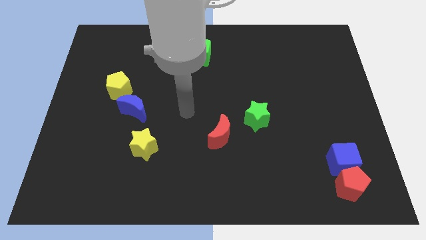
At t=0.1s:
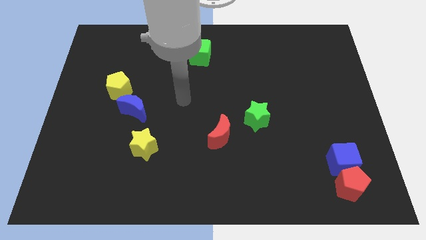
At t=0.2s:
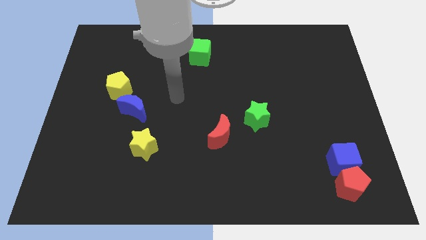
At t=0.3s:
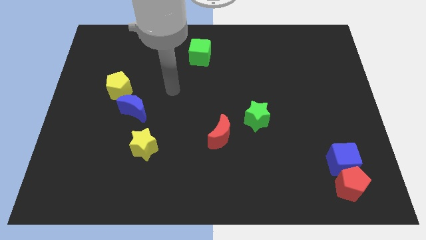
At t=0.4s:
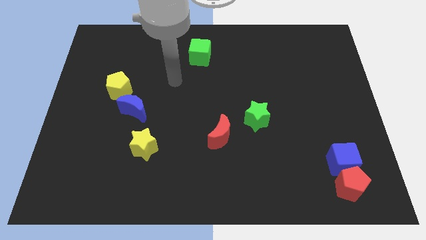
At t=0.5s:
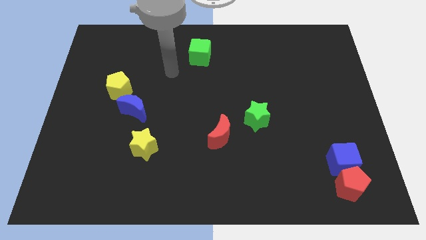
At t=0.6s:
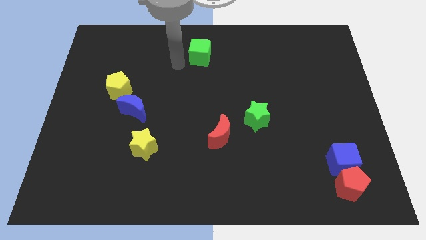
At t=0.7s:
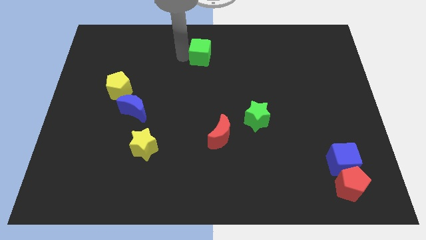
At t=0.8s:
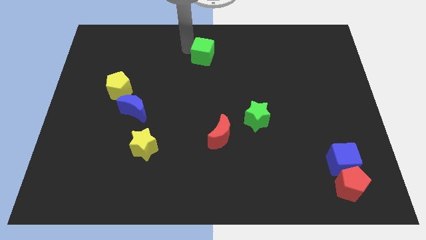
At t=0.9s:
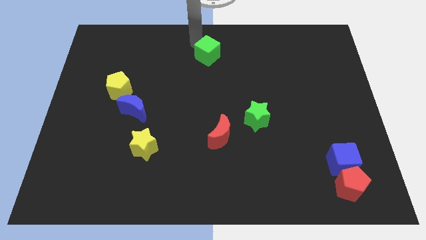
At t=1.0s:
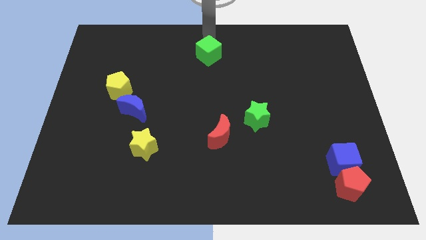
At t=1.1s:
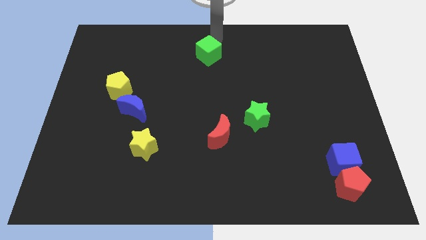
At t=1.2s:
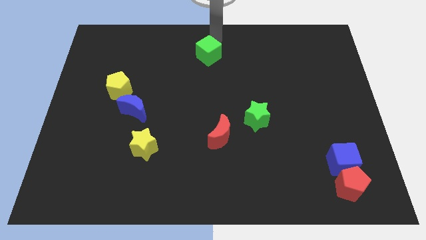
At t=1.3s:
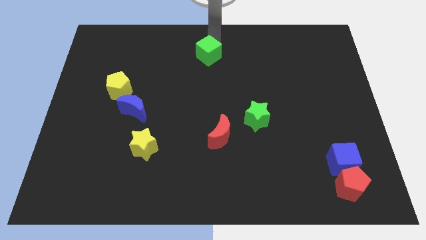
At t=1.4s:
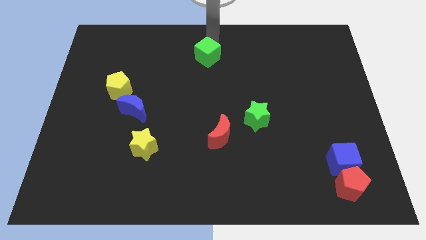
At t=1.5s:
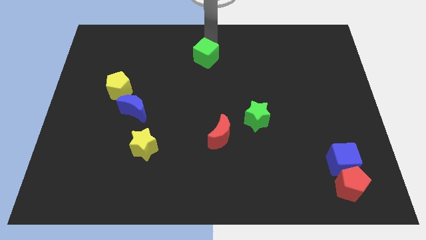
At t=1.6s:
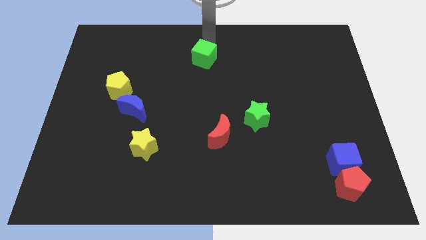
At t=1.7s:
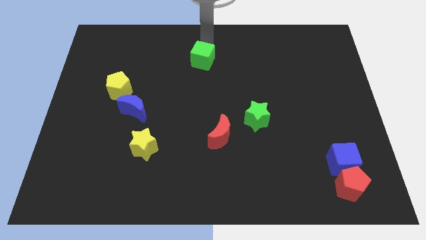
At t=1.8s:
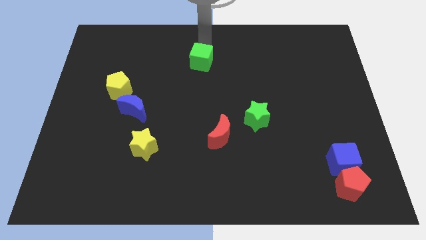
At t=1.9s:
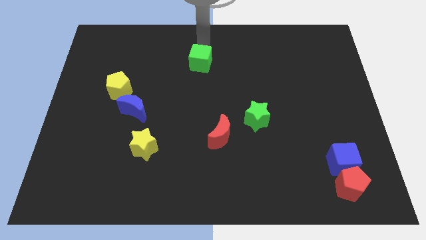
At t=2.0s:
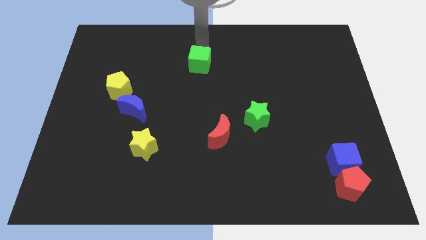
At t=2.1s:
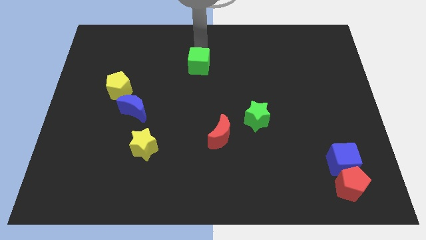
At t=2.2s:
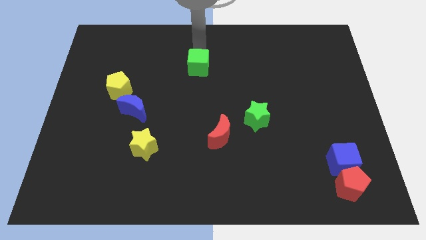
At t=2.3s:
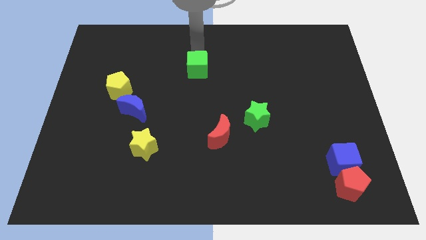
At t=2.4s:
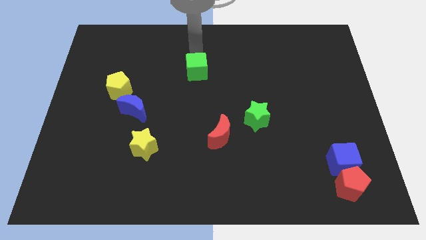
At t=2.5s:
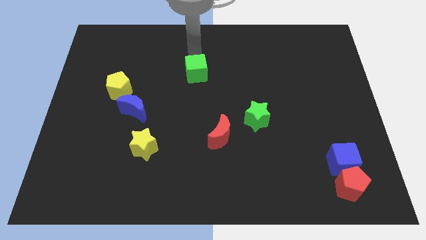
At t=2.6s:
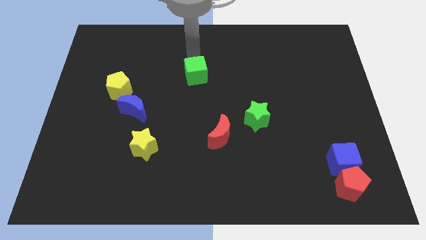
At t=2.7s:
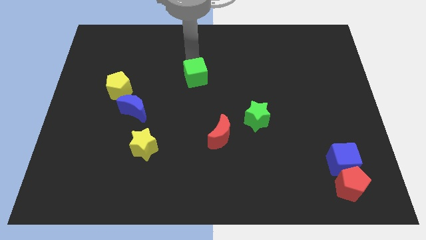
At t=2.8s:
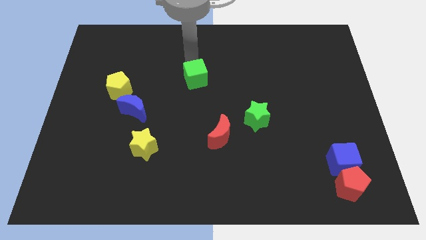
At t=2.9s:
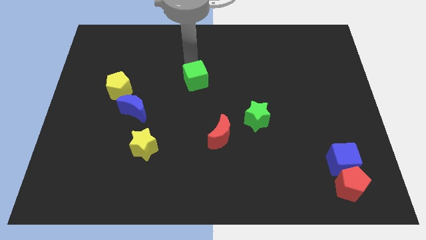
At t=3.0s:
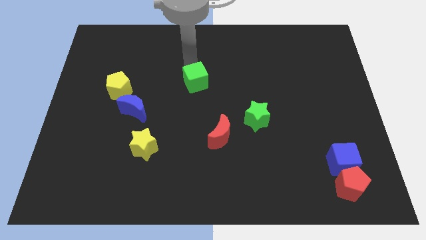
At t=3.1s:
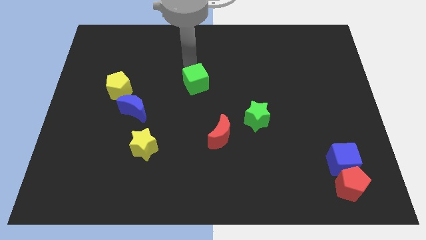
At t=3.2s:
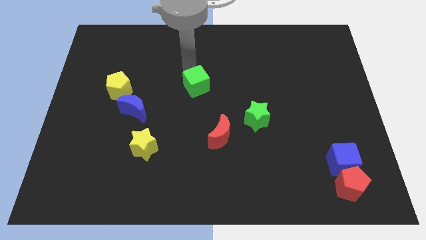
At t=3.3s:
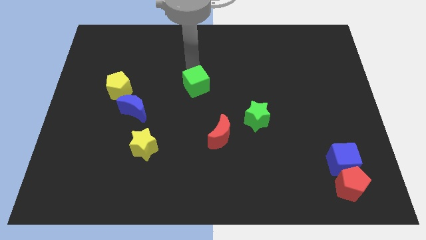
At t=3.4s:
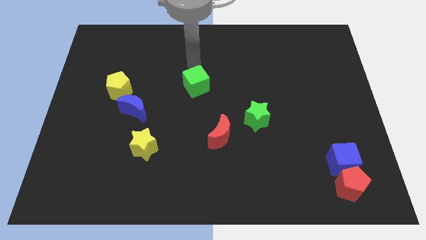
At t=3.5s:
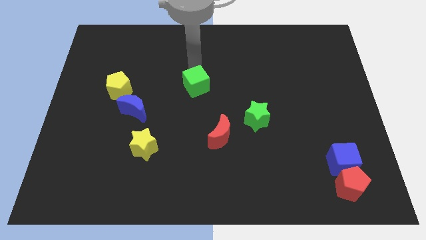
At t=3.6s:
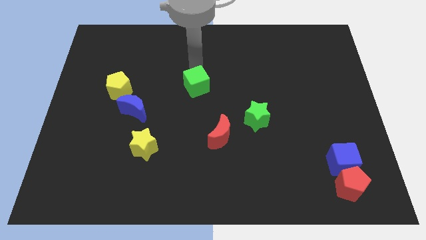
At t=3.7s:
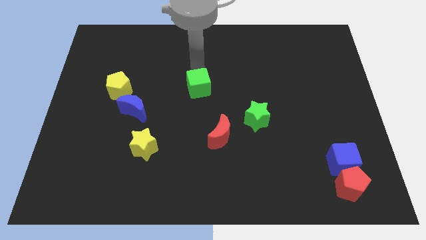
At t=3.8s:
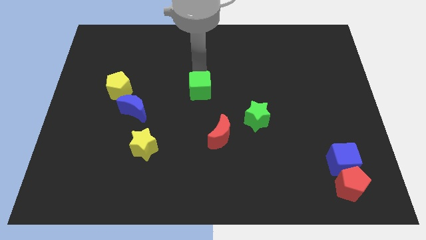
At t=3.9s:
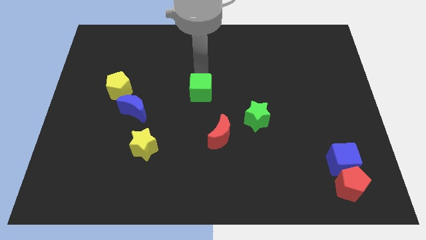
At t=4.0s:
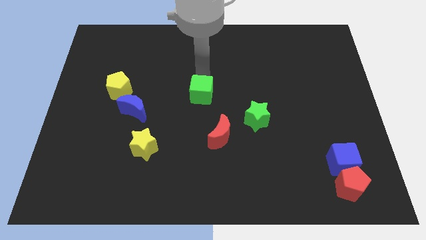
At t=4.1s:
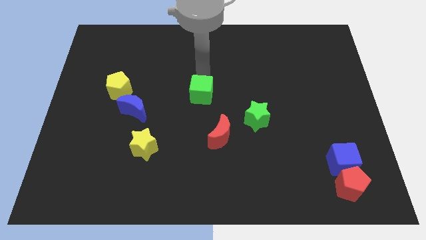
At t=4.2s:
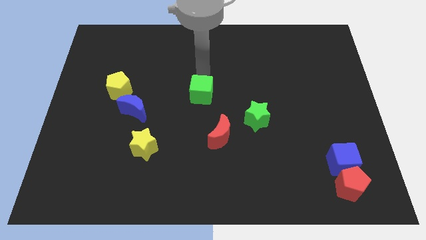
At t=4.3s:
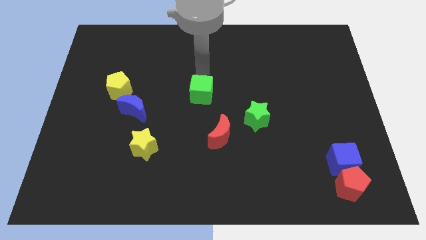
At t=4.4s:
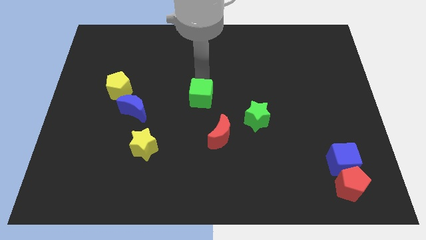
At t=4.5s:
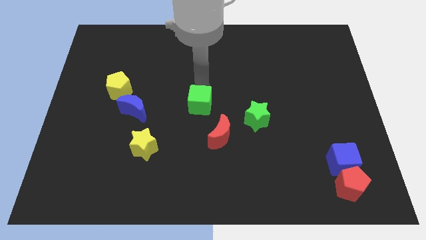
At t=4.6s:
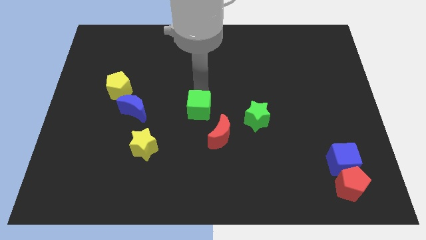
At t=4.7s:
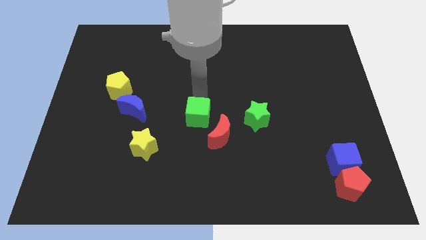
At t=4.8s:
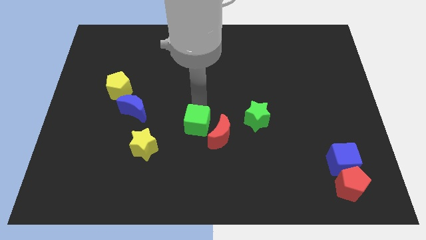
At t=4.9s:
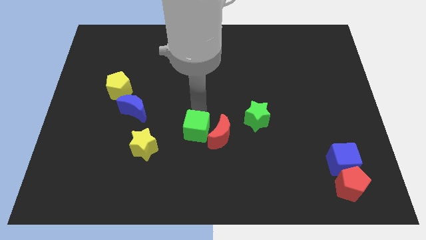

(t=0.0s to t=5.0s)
slide the green cube to the right side of the yellow star

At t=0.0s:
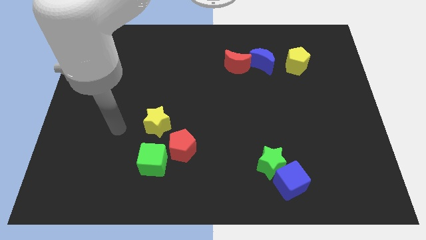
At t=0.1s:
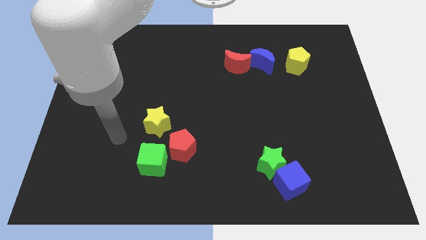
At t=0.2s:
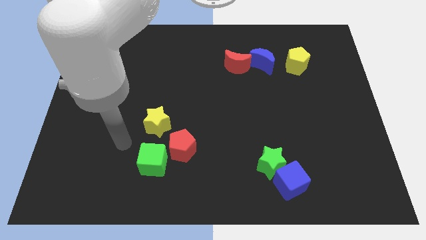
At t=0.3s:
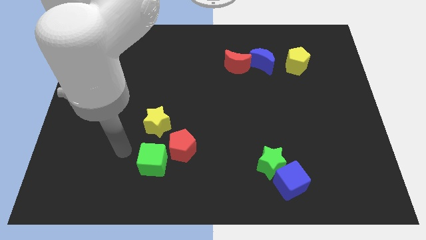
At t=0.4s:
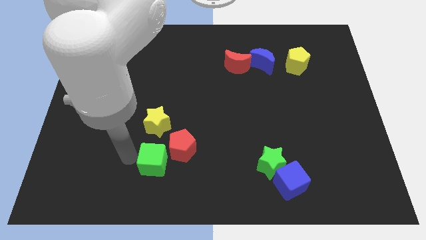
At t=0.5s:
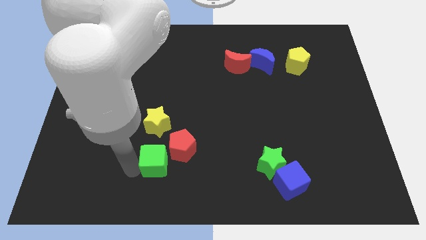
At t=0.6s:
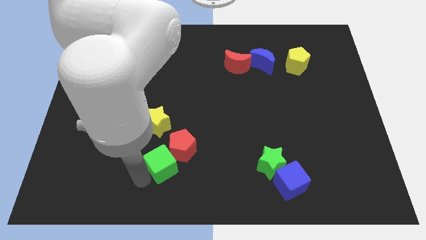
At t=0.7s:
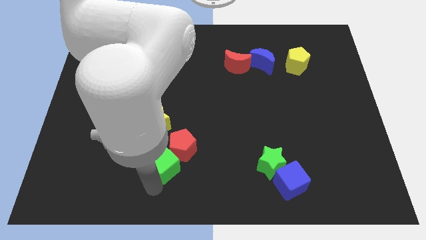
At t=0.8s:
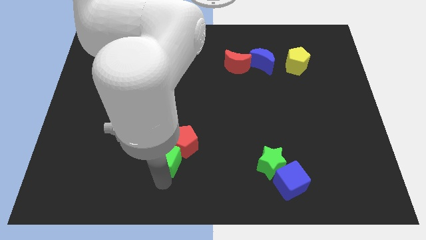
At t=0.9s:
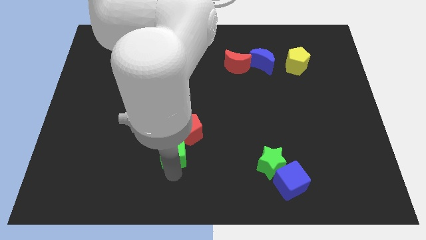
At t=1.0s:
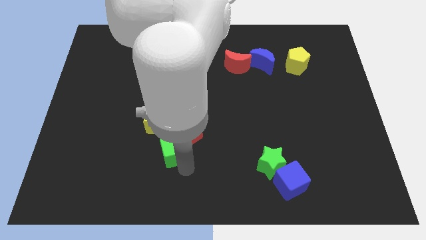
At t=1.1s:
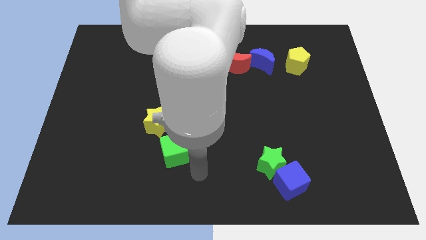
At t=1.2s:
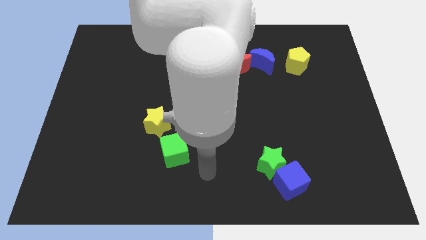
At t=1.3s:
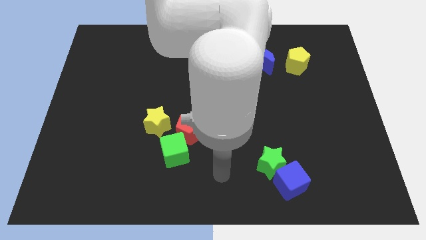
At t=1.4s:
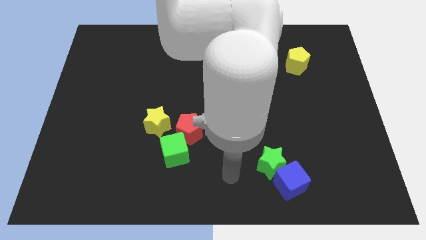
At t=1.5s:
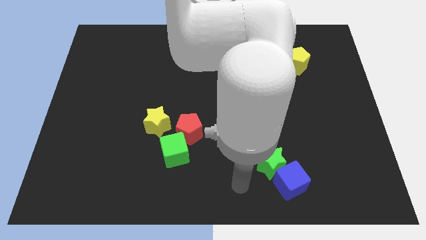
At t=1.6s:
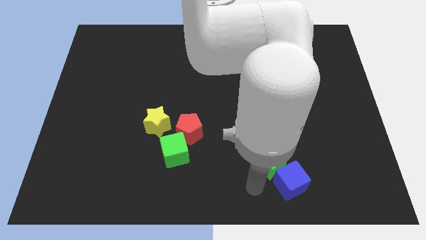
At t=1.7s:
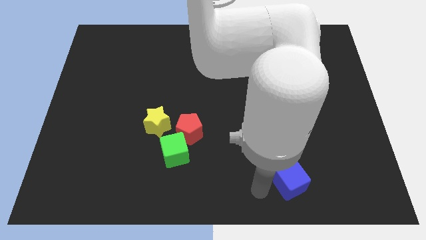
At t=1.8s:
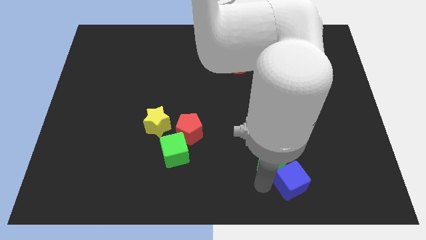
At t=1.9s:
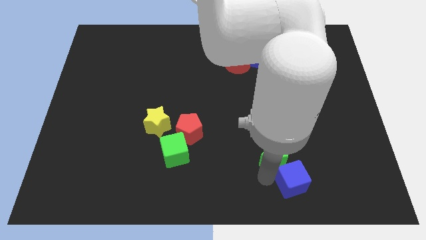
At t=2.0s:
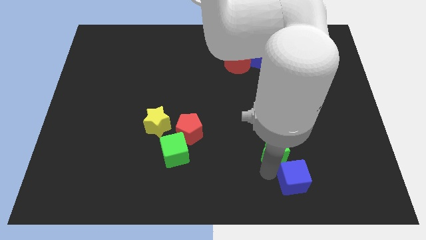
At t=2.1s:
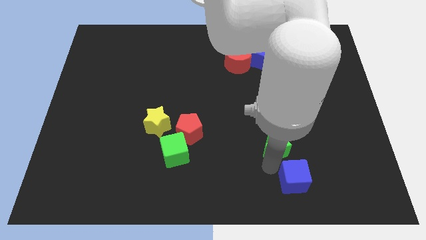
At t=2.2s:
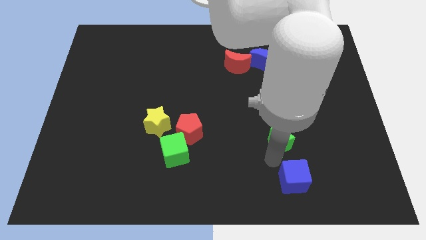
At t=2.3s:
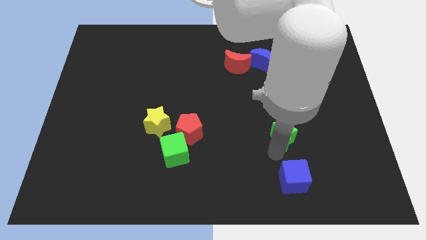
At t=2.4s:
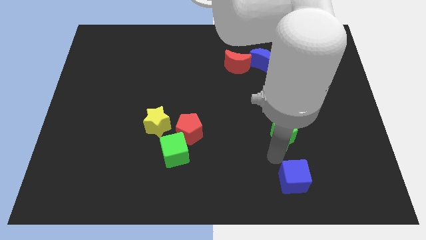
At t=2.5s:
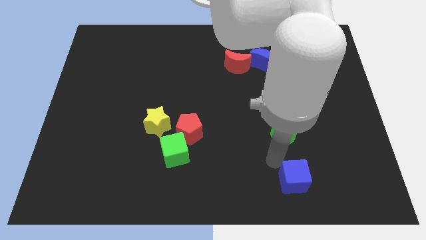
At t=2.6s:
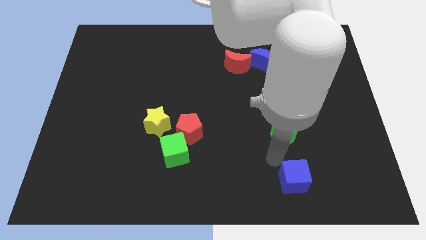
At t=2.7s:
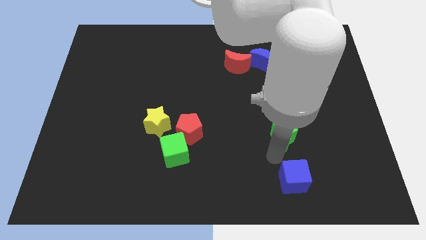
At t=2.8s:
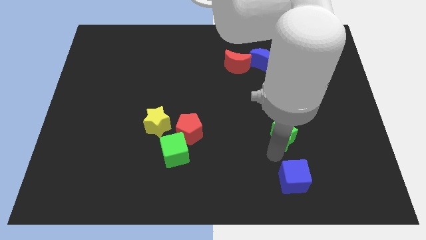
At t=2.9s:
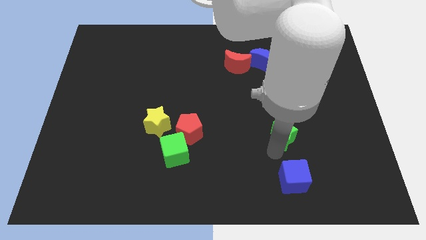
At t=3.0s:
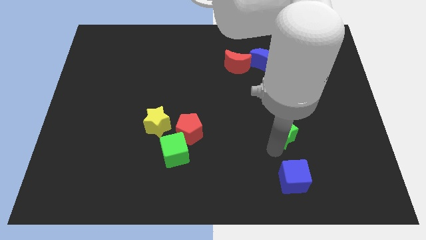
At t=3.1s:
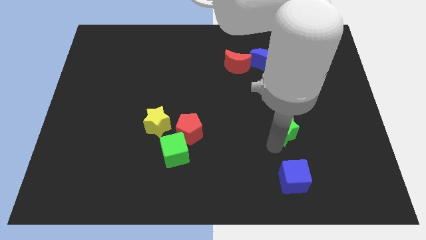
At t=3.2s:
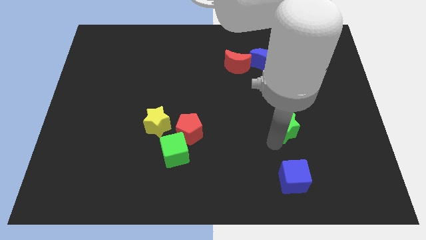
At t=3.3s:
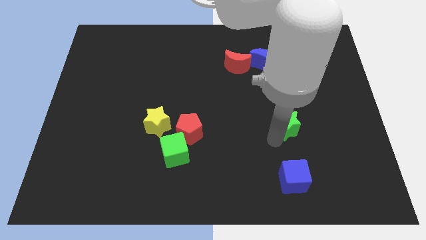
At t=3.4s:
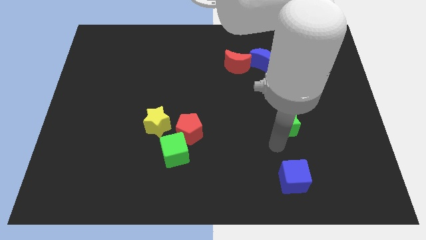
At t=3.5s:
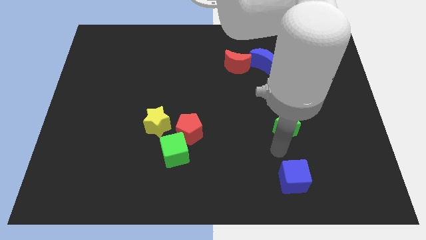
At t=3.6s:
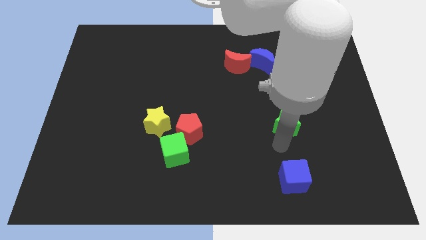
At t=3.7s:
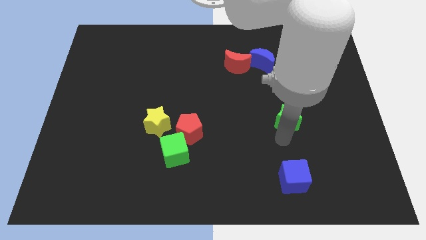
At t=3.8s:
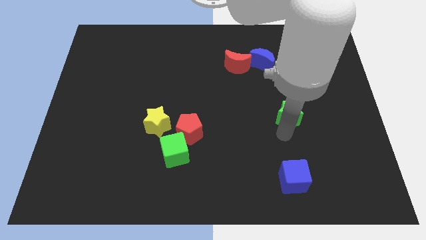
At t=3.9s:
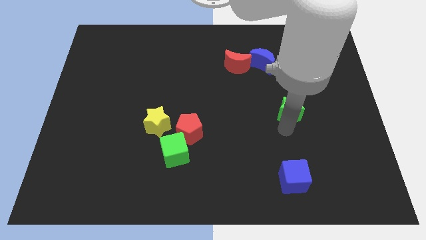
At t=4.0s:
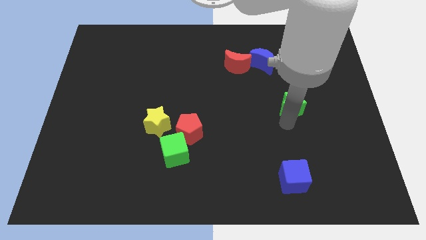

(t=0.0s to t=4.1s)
put the green star to the bottom of the yellow pentagon
